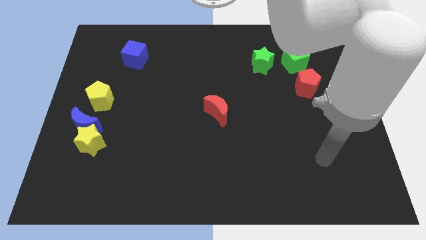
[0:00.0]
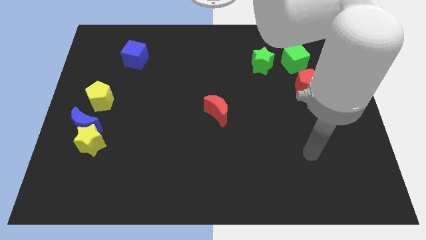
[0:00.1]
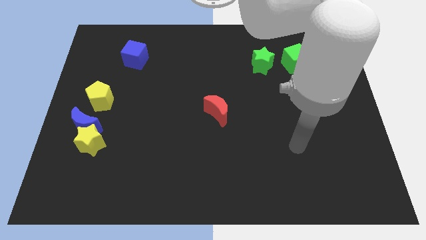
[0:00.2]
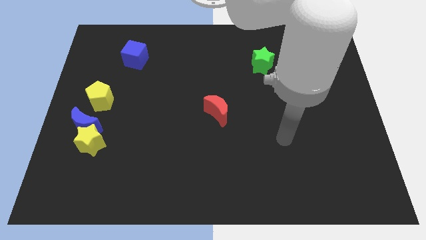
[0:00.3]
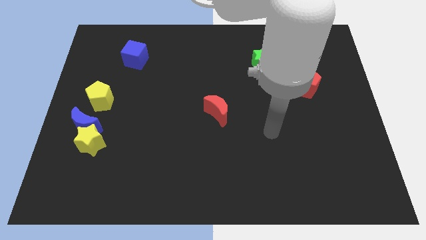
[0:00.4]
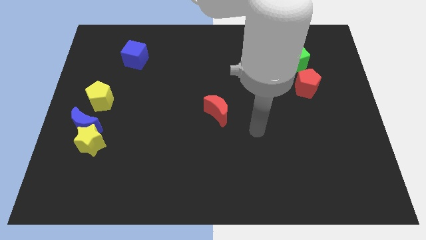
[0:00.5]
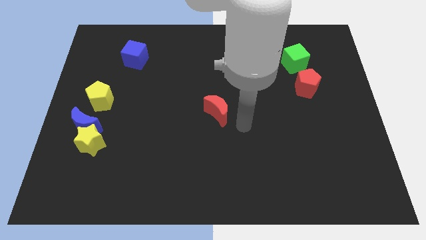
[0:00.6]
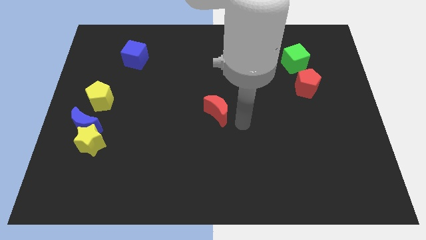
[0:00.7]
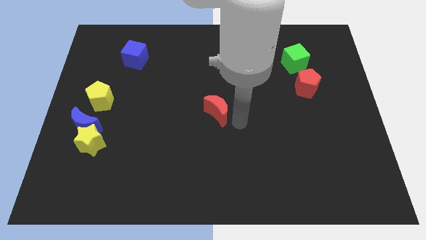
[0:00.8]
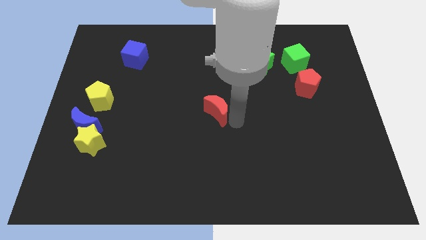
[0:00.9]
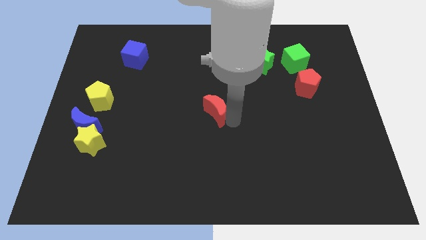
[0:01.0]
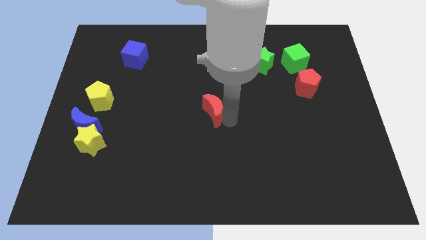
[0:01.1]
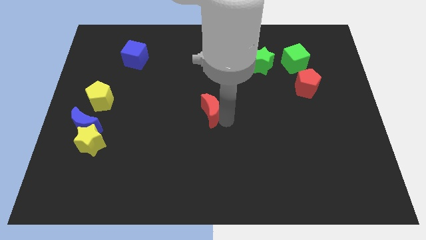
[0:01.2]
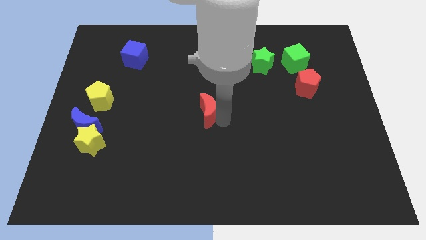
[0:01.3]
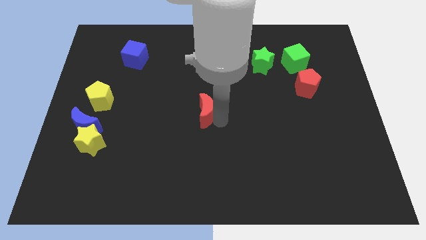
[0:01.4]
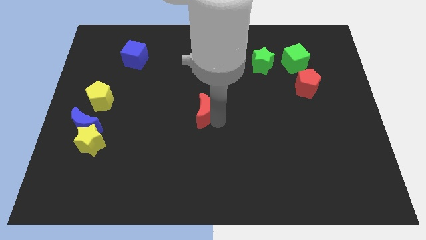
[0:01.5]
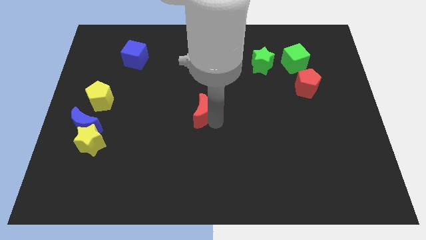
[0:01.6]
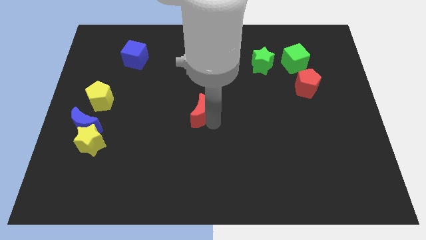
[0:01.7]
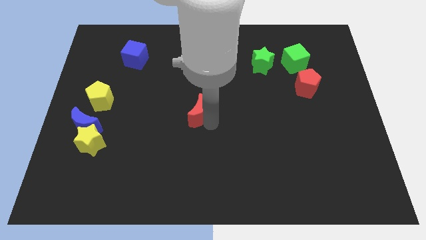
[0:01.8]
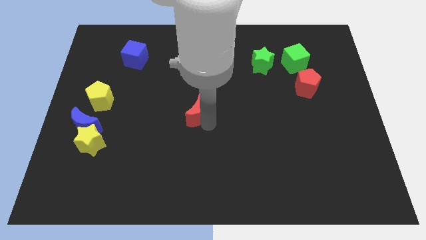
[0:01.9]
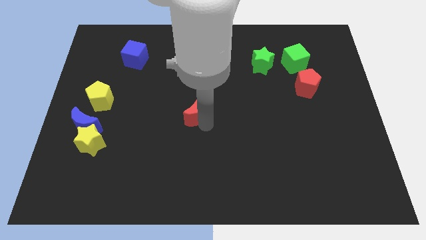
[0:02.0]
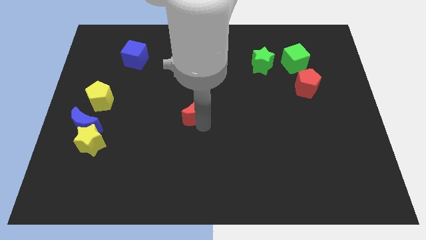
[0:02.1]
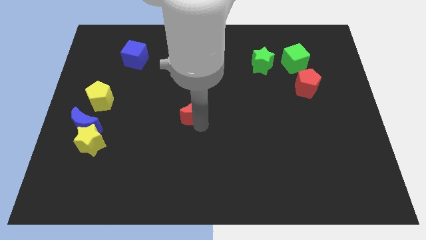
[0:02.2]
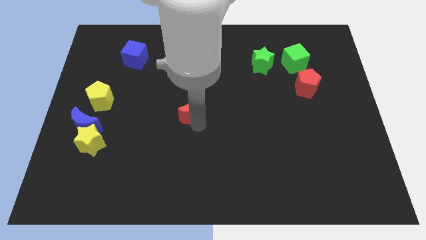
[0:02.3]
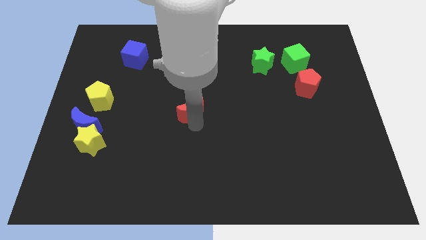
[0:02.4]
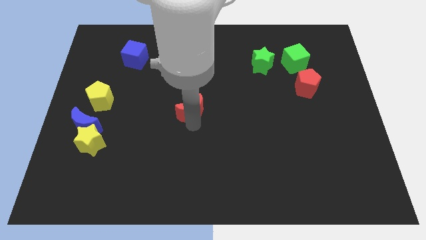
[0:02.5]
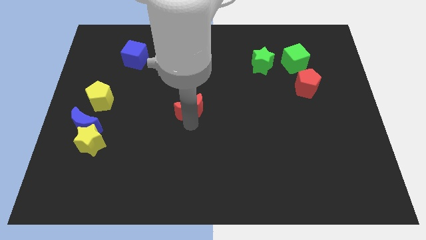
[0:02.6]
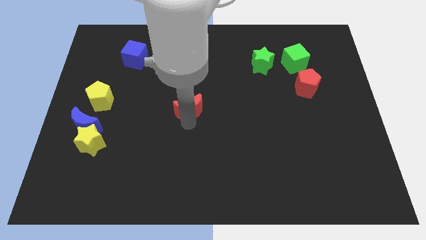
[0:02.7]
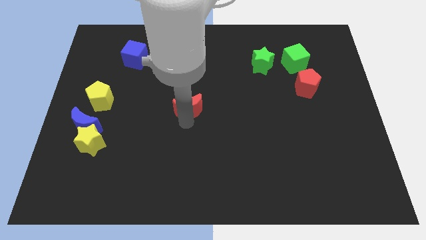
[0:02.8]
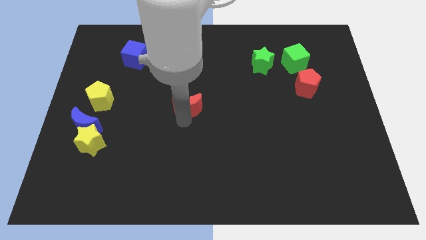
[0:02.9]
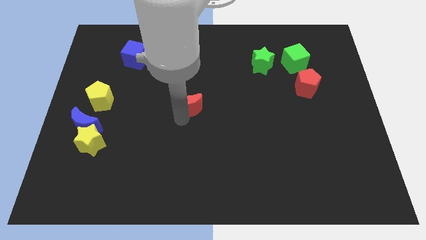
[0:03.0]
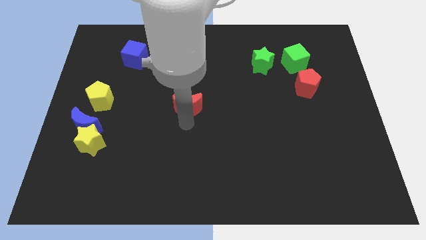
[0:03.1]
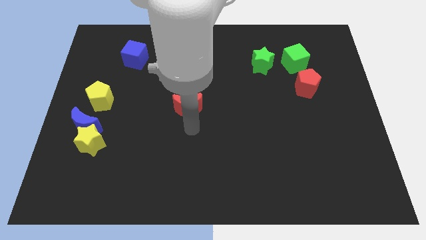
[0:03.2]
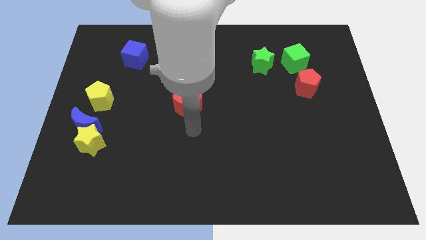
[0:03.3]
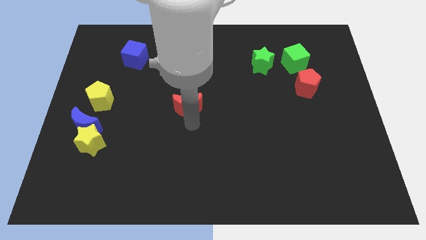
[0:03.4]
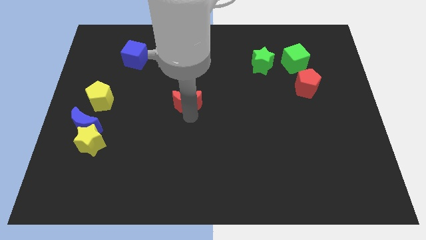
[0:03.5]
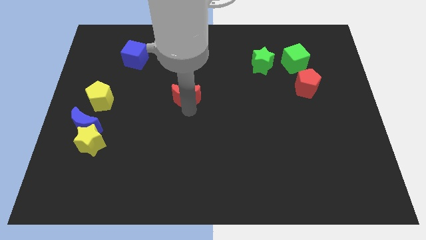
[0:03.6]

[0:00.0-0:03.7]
slightly push the red moon up and left

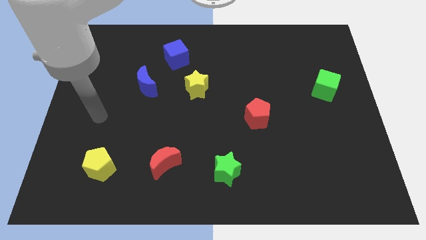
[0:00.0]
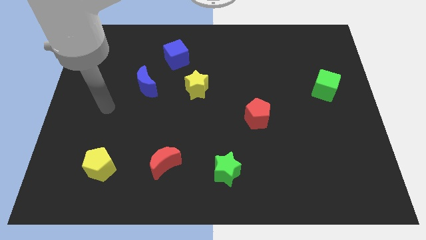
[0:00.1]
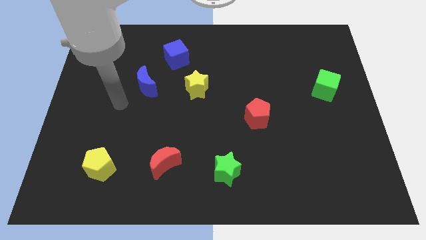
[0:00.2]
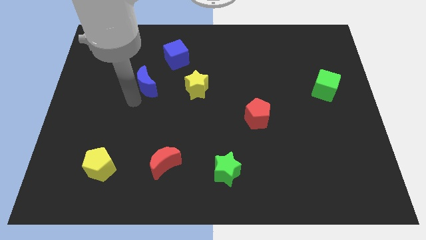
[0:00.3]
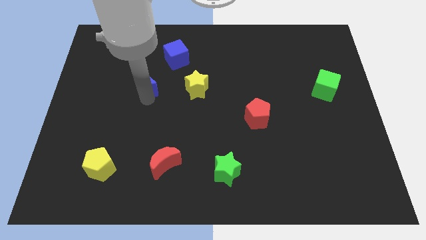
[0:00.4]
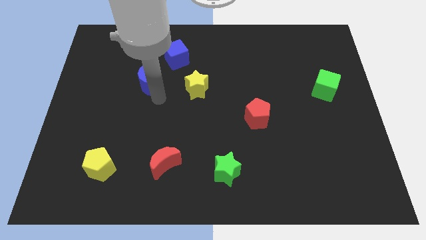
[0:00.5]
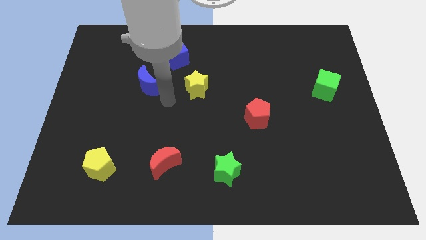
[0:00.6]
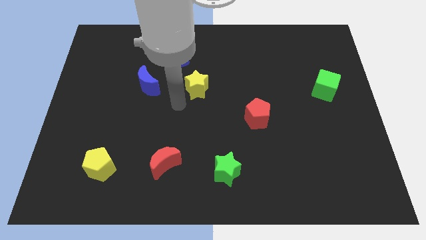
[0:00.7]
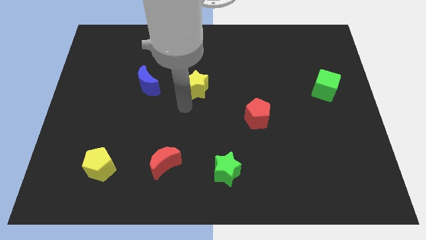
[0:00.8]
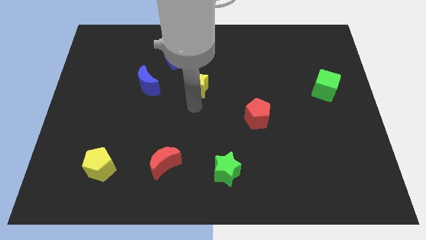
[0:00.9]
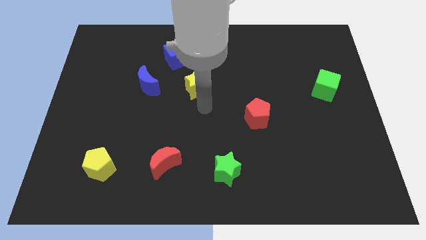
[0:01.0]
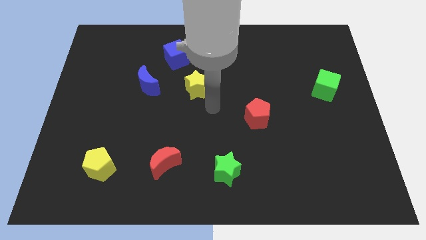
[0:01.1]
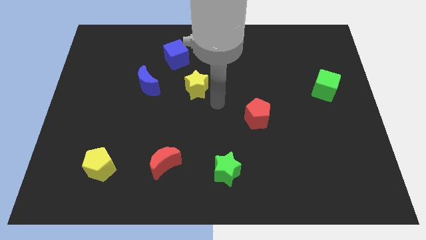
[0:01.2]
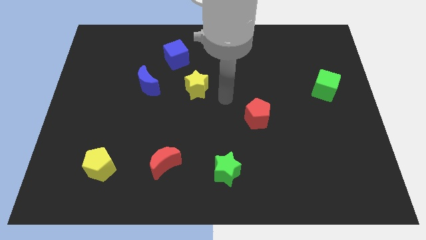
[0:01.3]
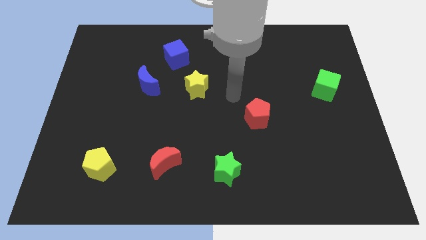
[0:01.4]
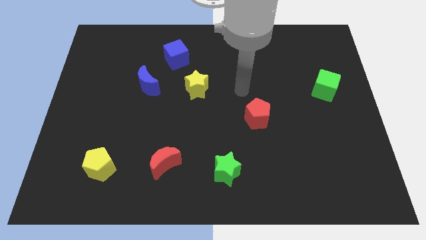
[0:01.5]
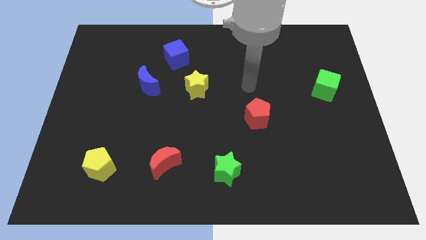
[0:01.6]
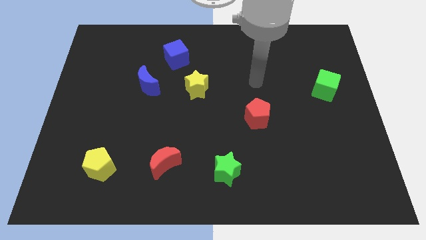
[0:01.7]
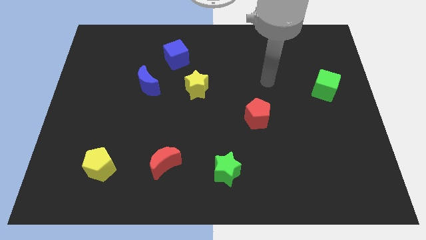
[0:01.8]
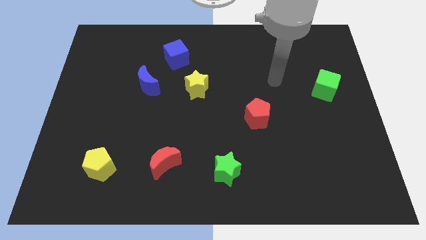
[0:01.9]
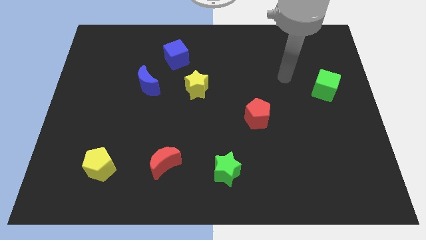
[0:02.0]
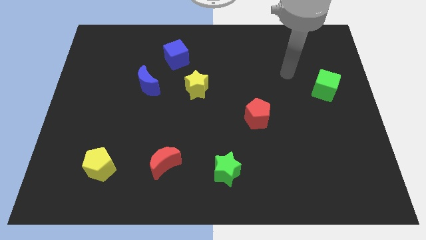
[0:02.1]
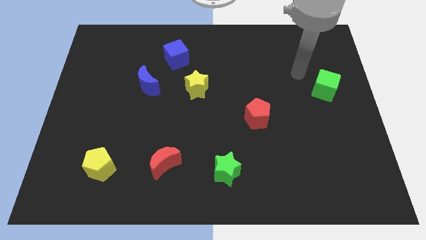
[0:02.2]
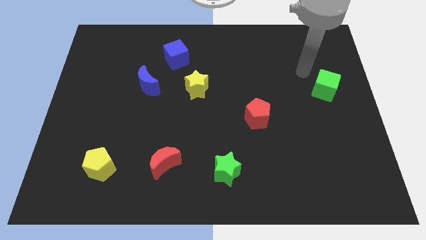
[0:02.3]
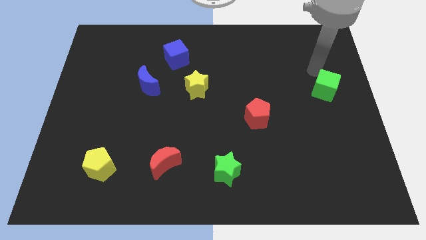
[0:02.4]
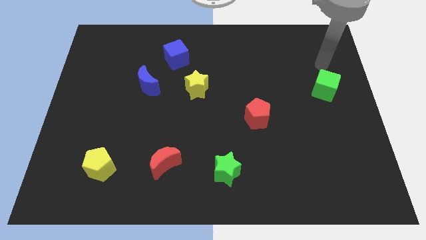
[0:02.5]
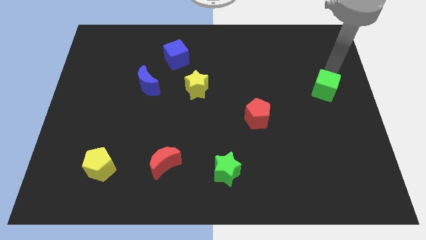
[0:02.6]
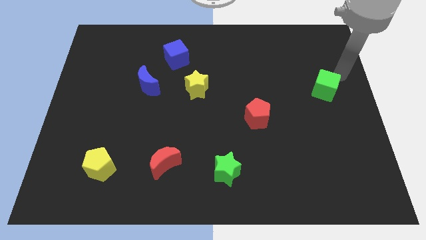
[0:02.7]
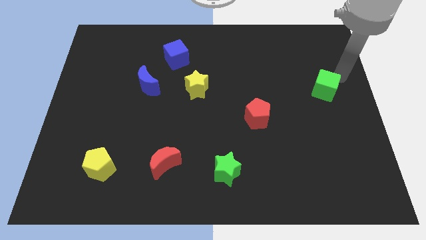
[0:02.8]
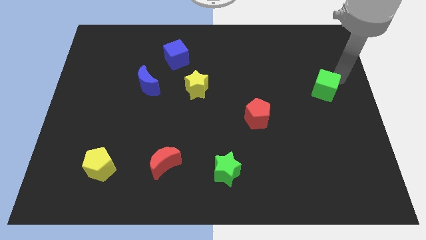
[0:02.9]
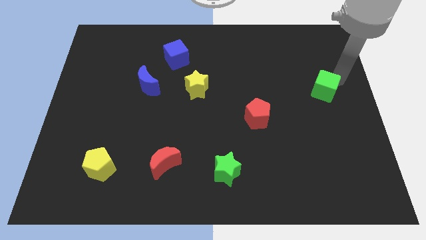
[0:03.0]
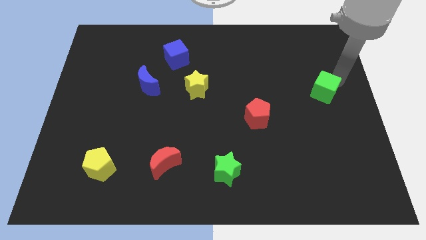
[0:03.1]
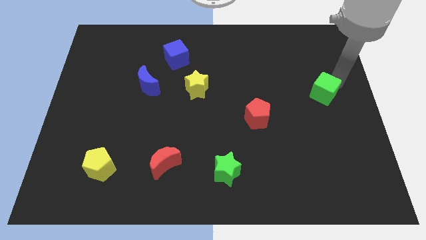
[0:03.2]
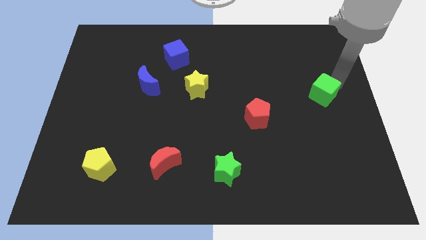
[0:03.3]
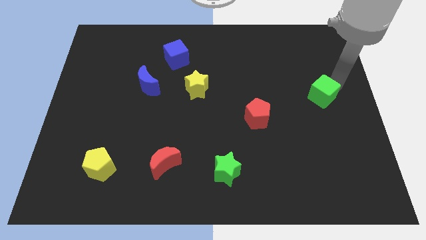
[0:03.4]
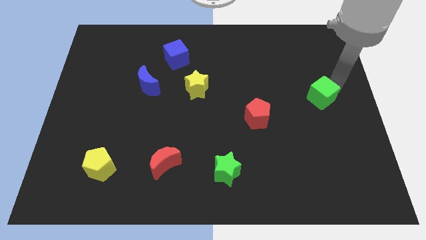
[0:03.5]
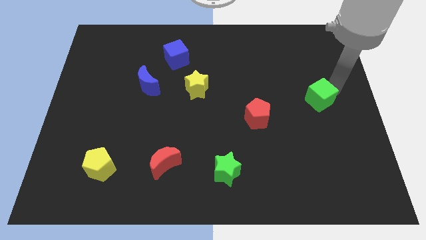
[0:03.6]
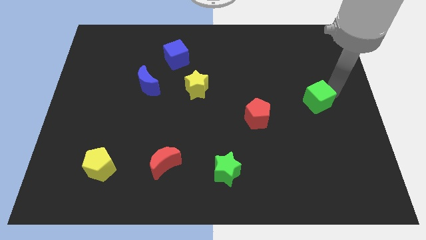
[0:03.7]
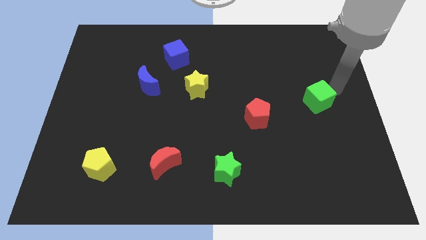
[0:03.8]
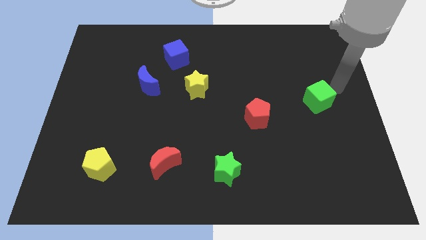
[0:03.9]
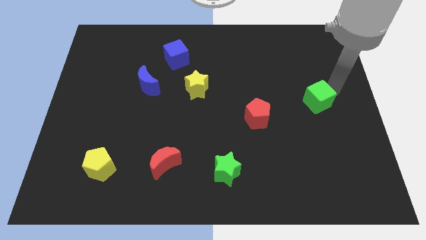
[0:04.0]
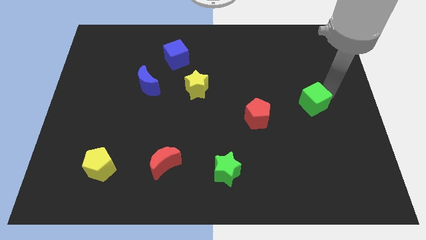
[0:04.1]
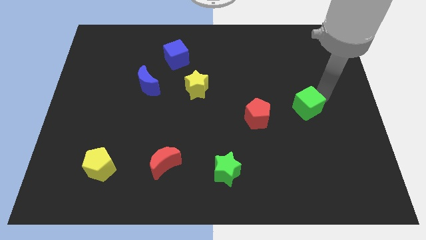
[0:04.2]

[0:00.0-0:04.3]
move the green cube a little downwards and then to the left

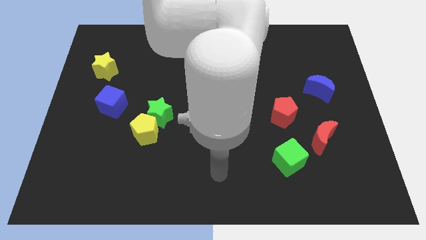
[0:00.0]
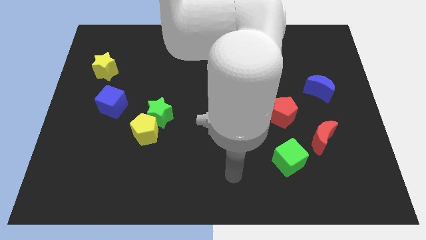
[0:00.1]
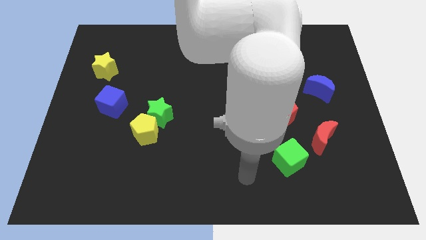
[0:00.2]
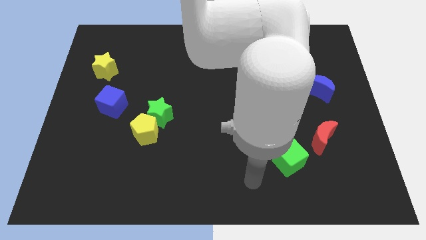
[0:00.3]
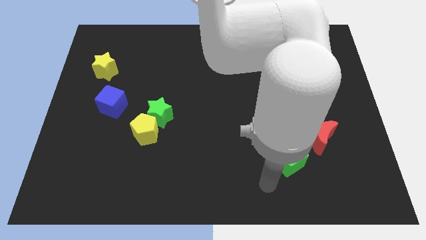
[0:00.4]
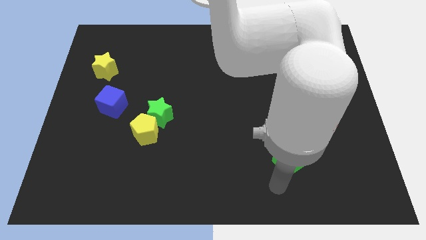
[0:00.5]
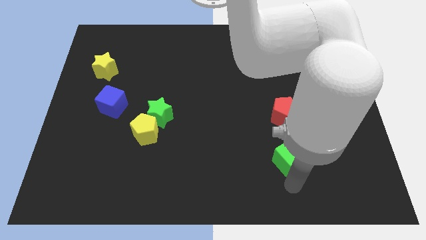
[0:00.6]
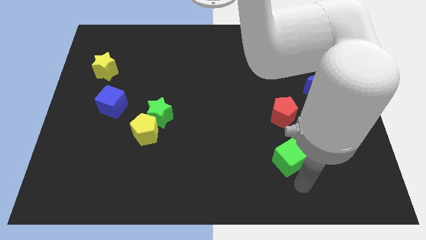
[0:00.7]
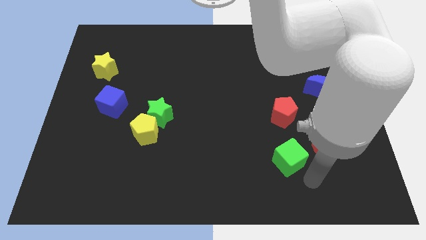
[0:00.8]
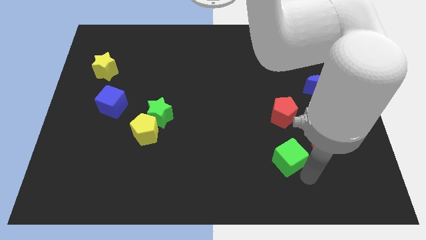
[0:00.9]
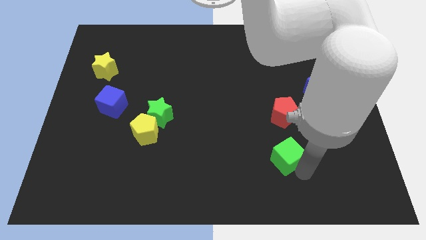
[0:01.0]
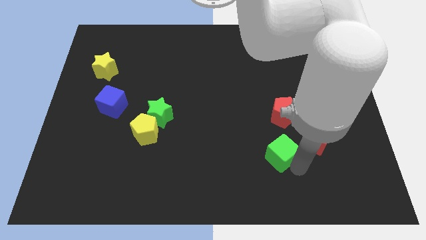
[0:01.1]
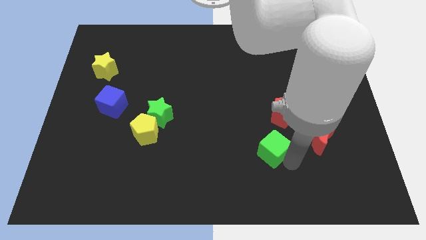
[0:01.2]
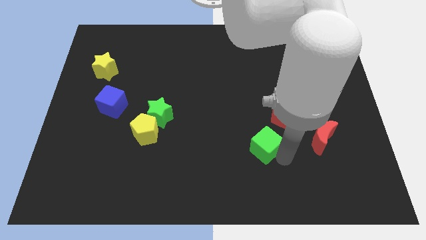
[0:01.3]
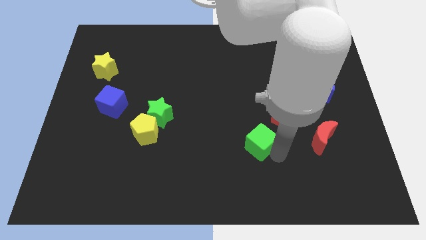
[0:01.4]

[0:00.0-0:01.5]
slide the green cube somewhat diagonally upwards and left
